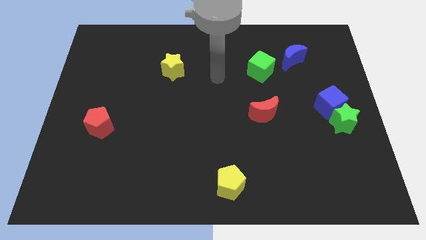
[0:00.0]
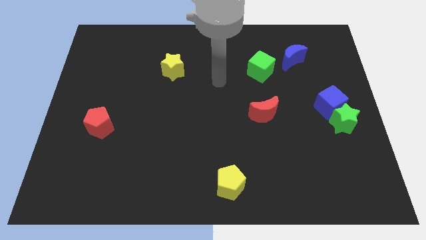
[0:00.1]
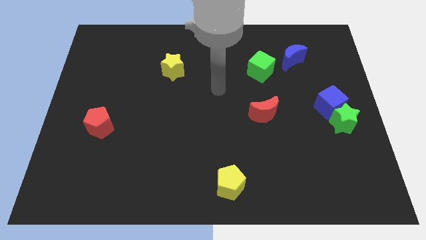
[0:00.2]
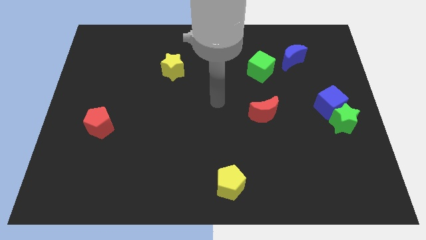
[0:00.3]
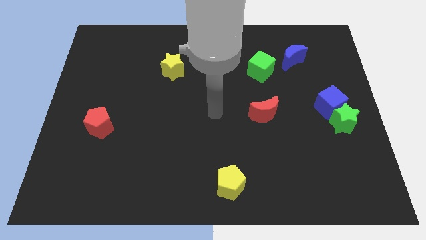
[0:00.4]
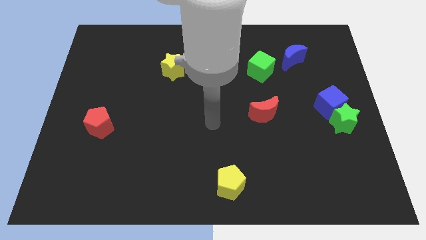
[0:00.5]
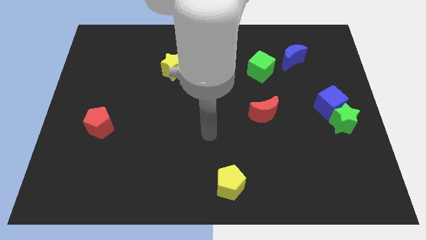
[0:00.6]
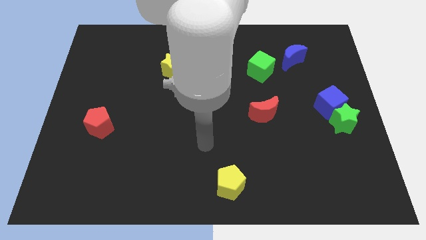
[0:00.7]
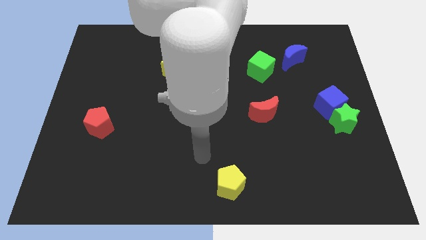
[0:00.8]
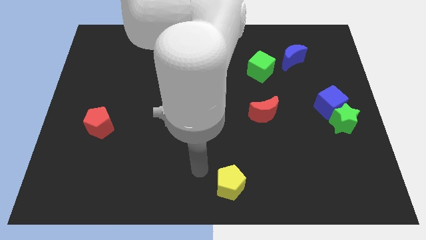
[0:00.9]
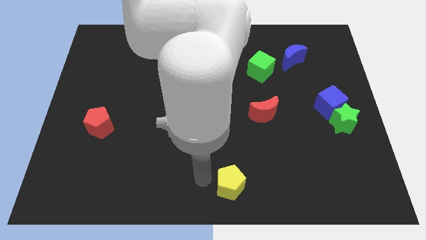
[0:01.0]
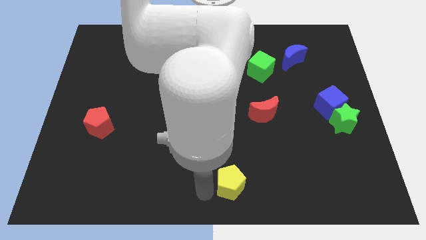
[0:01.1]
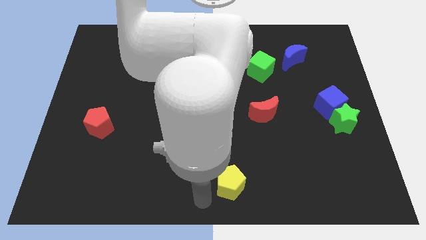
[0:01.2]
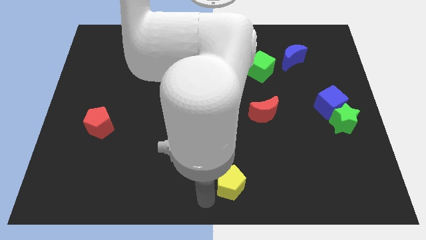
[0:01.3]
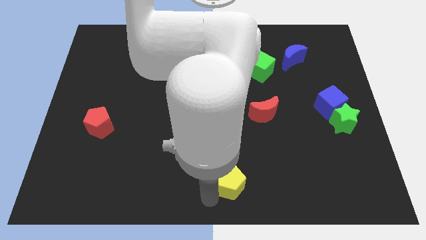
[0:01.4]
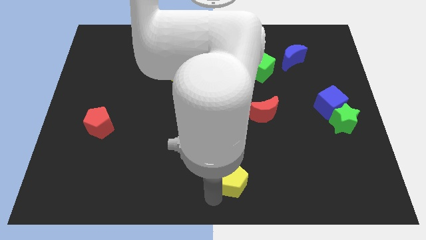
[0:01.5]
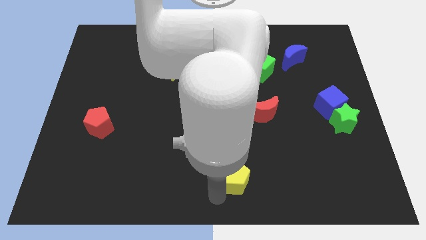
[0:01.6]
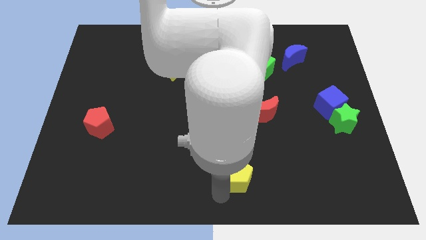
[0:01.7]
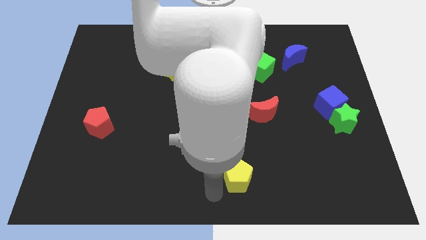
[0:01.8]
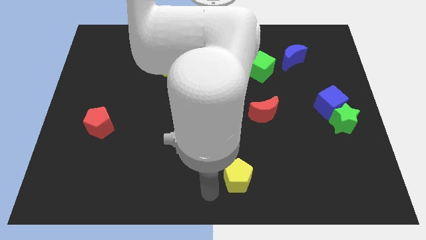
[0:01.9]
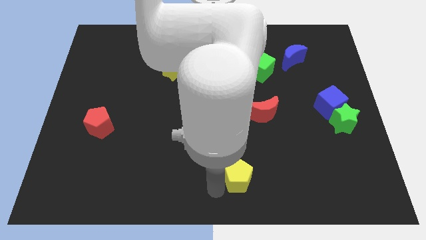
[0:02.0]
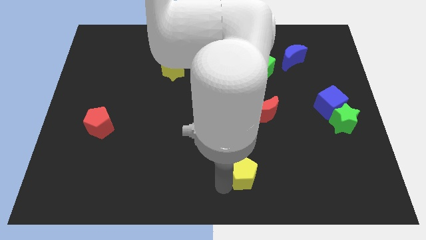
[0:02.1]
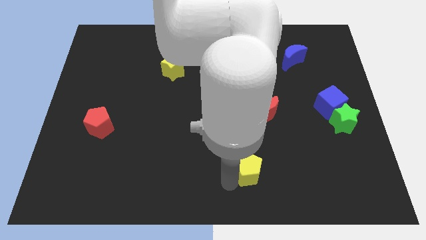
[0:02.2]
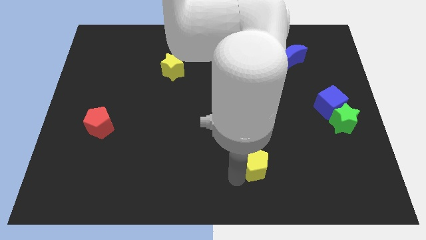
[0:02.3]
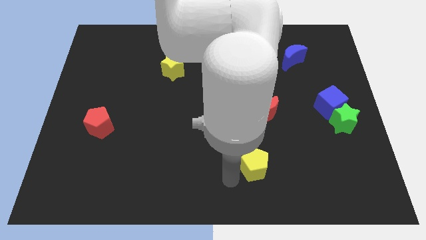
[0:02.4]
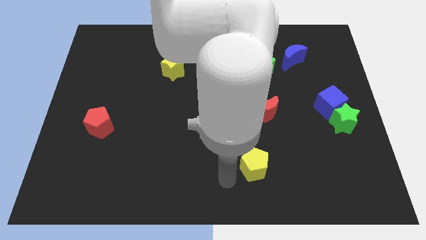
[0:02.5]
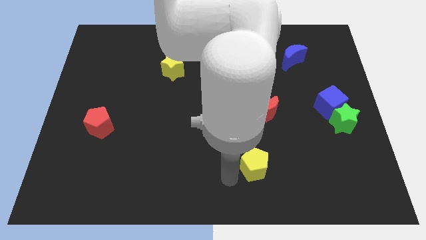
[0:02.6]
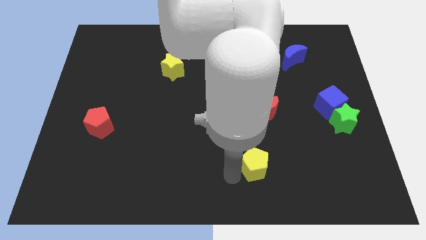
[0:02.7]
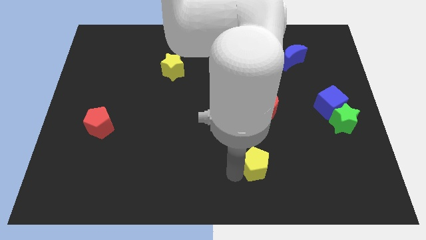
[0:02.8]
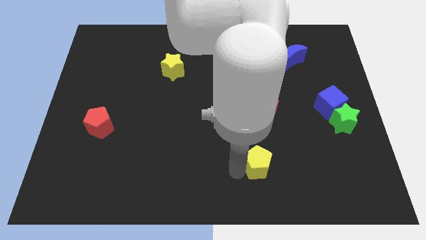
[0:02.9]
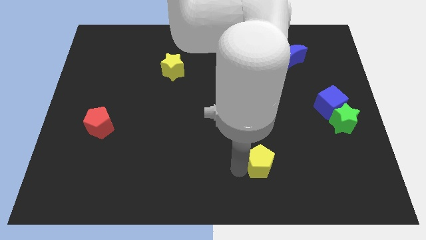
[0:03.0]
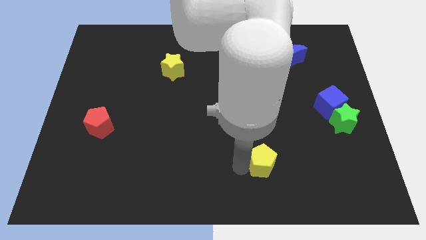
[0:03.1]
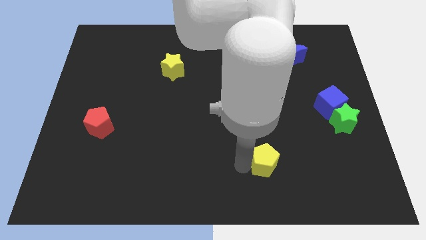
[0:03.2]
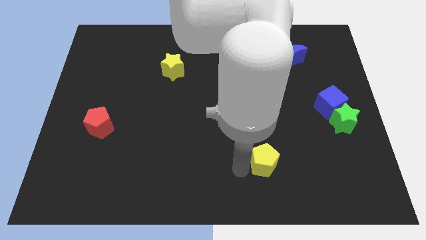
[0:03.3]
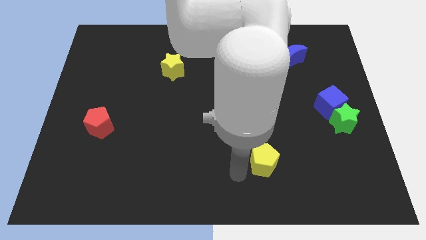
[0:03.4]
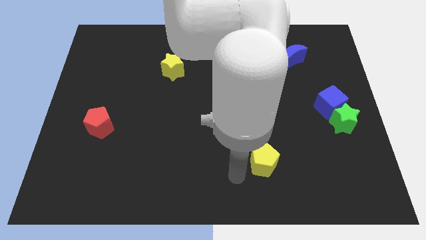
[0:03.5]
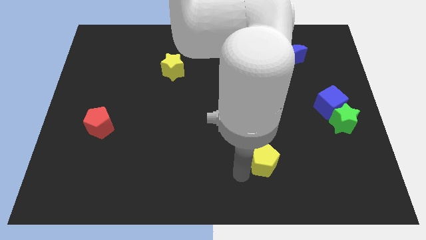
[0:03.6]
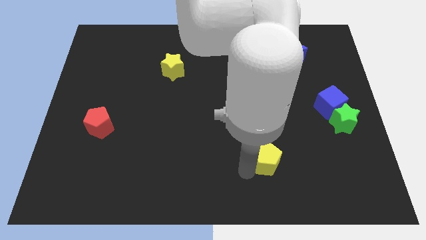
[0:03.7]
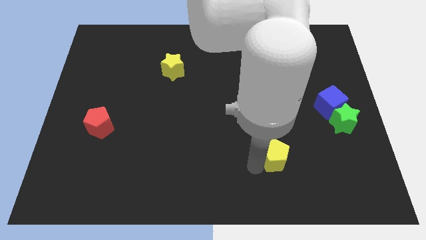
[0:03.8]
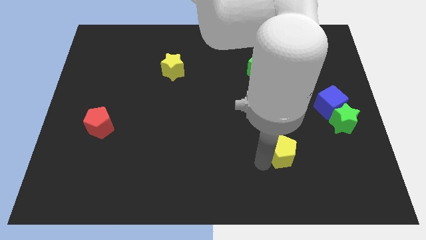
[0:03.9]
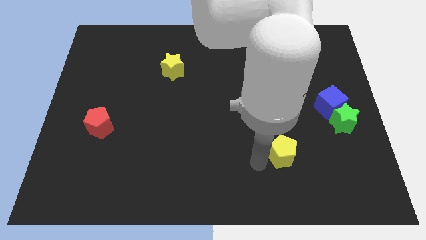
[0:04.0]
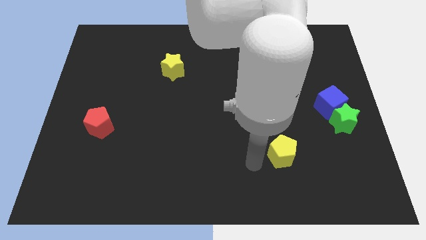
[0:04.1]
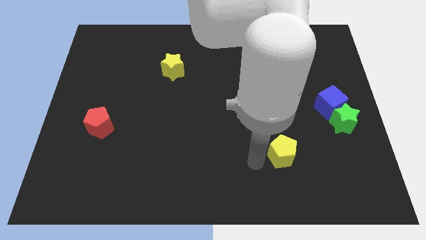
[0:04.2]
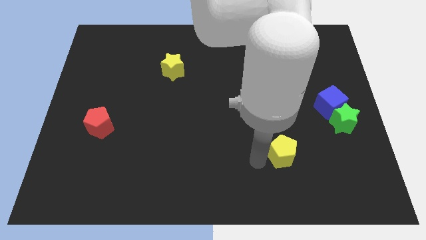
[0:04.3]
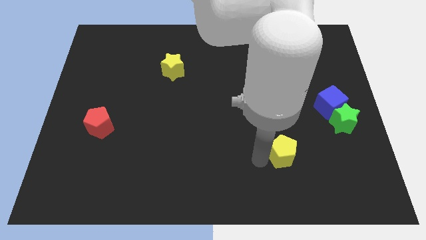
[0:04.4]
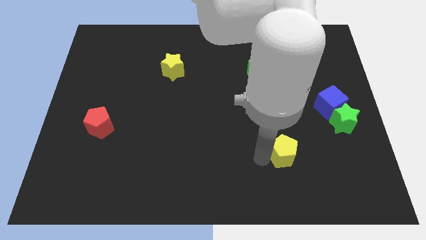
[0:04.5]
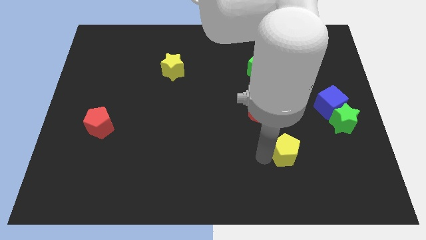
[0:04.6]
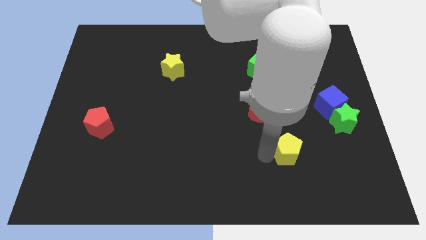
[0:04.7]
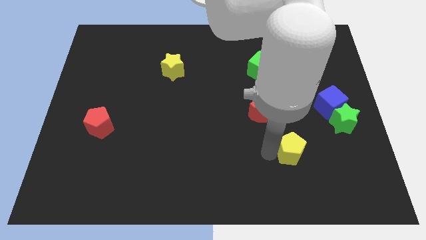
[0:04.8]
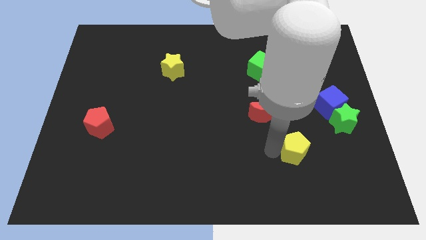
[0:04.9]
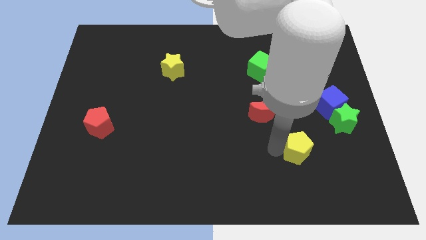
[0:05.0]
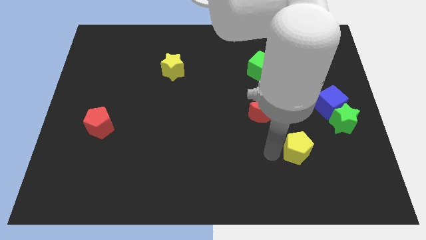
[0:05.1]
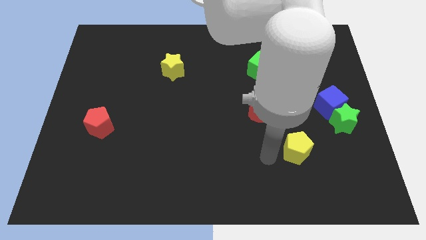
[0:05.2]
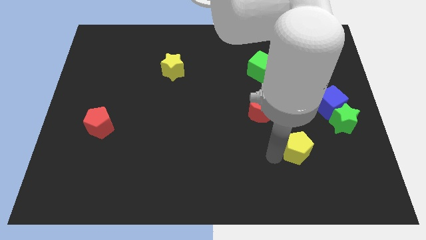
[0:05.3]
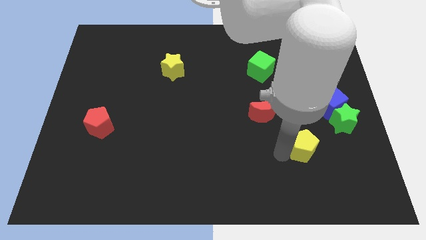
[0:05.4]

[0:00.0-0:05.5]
slide the yellow pentagon to the bottom left side of the green star
